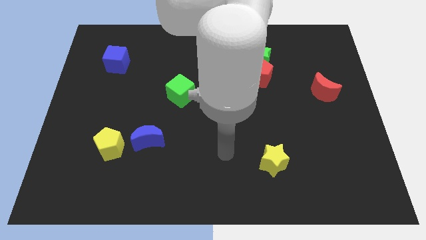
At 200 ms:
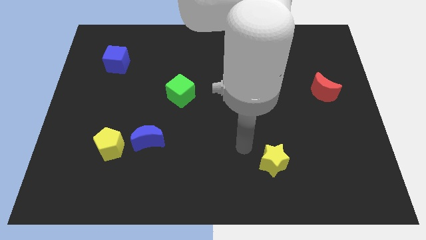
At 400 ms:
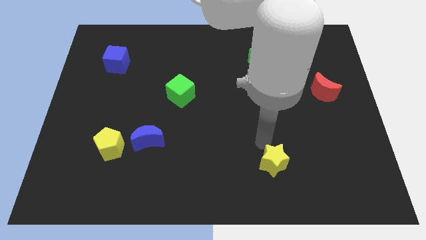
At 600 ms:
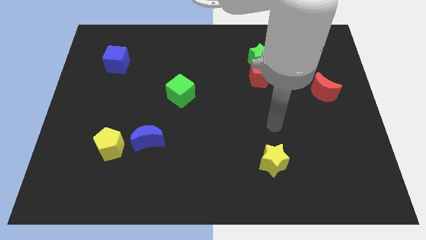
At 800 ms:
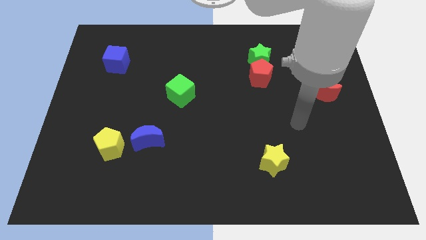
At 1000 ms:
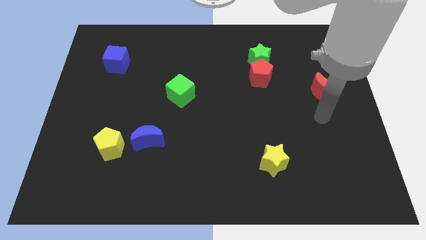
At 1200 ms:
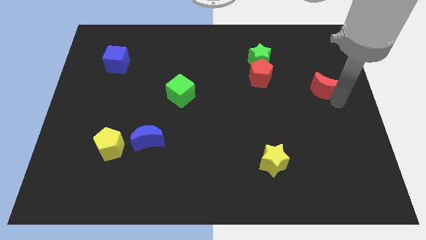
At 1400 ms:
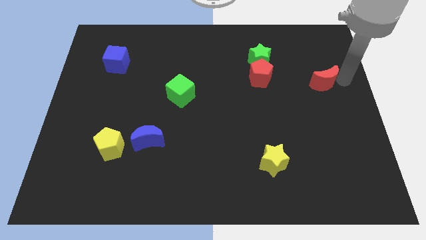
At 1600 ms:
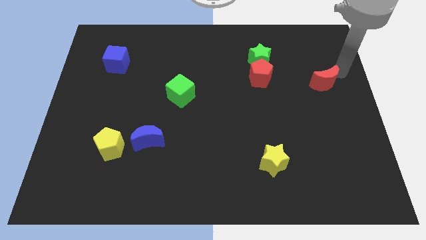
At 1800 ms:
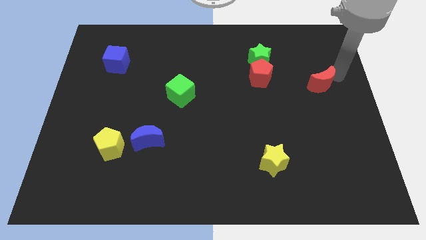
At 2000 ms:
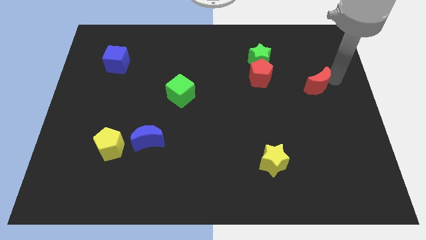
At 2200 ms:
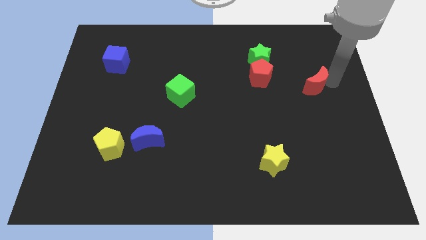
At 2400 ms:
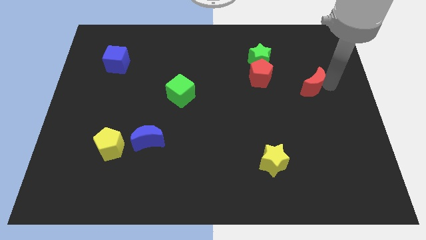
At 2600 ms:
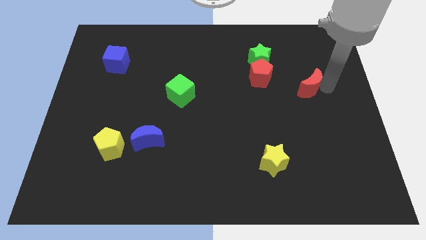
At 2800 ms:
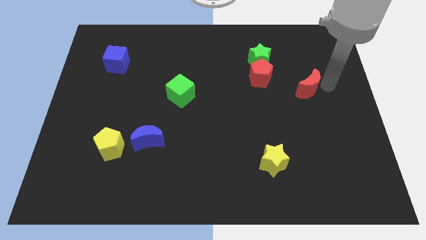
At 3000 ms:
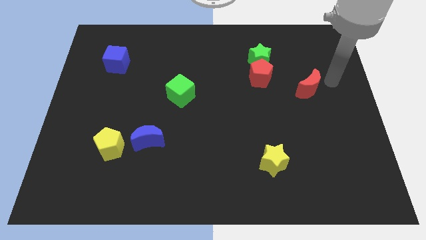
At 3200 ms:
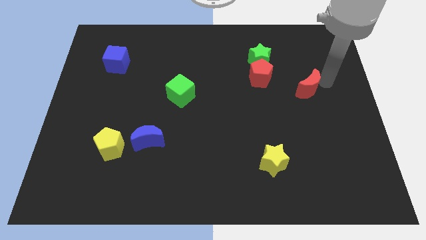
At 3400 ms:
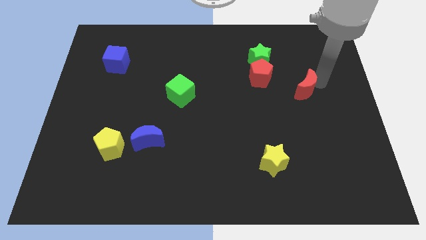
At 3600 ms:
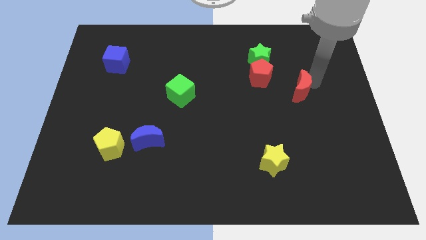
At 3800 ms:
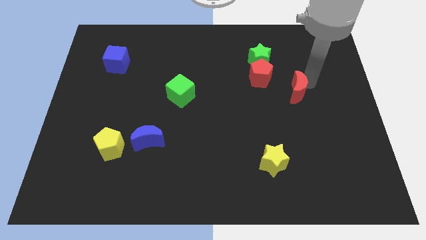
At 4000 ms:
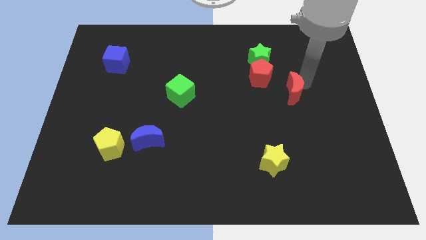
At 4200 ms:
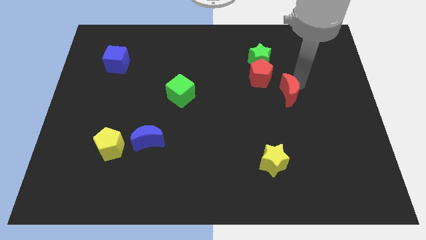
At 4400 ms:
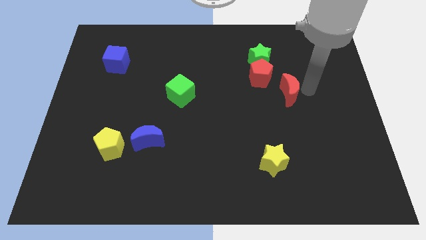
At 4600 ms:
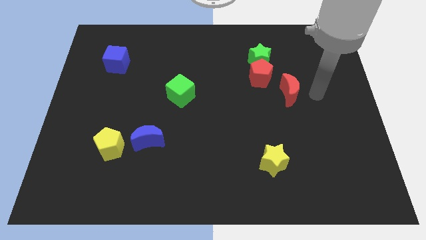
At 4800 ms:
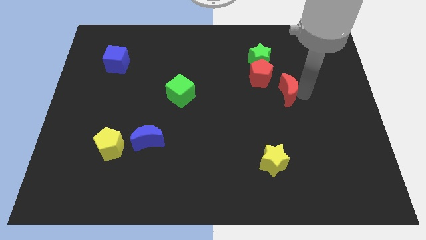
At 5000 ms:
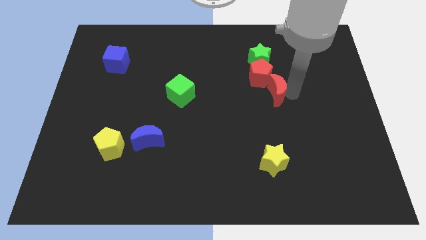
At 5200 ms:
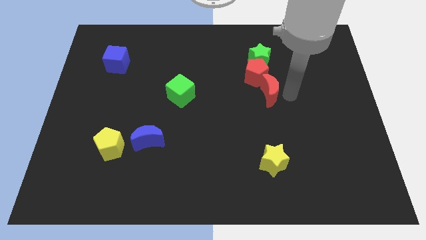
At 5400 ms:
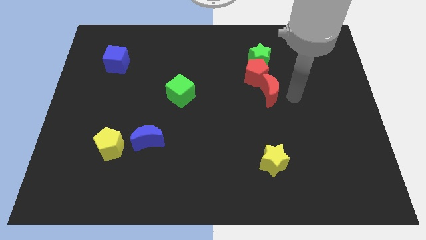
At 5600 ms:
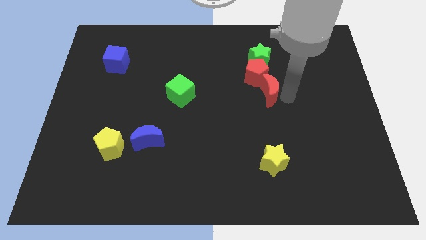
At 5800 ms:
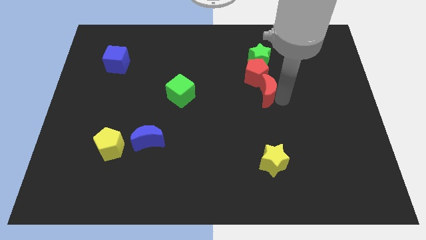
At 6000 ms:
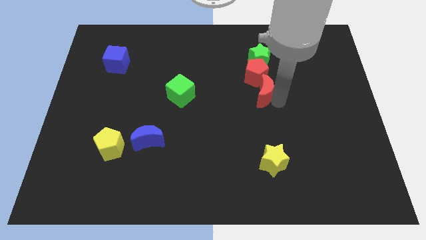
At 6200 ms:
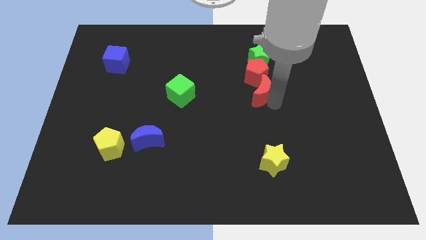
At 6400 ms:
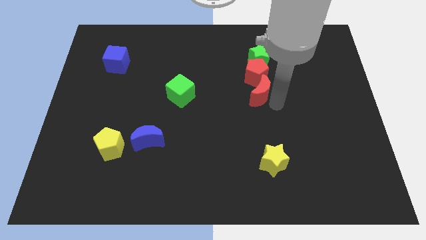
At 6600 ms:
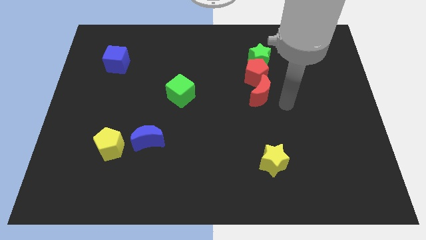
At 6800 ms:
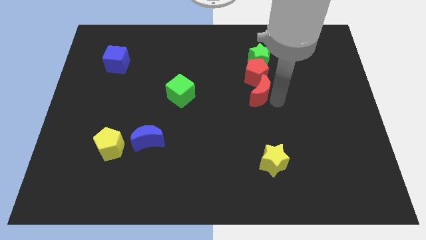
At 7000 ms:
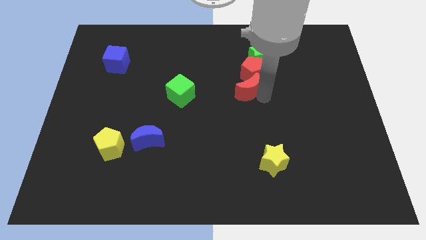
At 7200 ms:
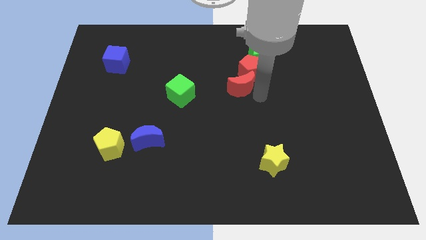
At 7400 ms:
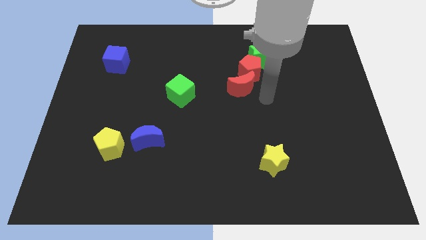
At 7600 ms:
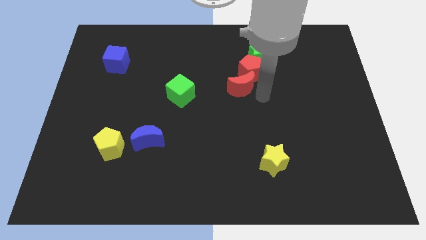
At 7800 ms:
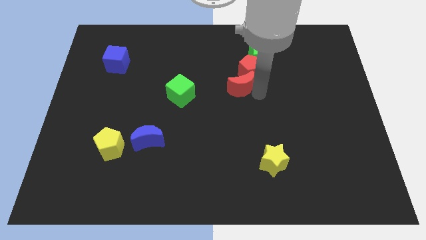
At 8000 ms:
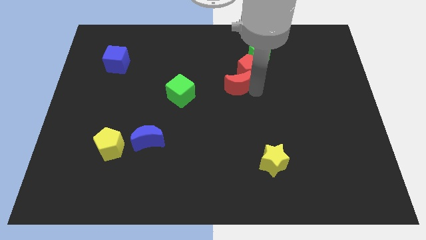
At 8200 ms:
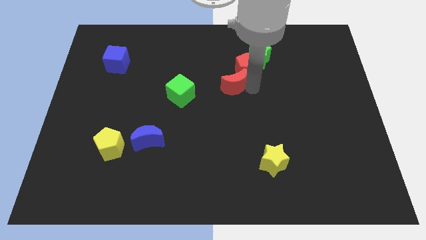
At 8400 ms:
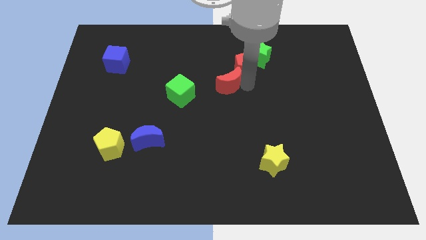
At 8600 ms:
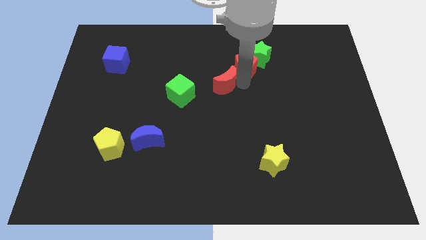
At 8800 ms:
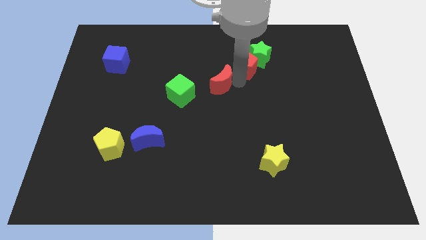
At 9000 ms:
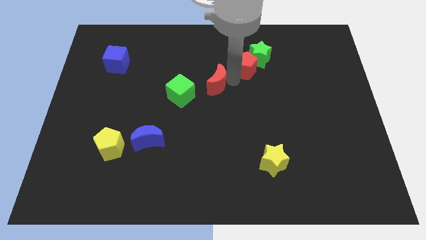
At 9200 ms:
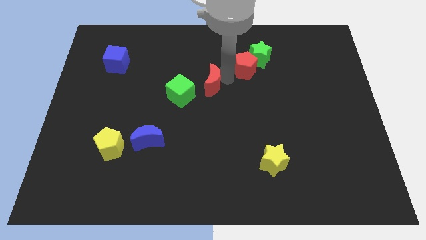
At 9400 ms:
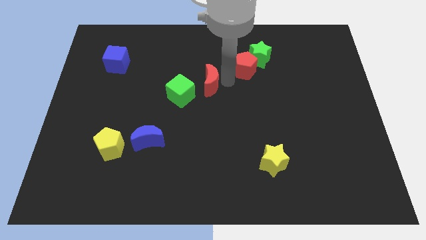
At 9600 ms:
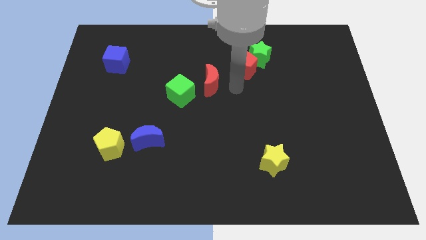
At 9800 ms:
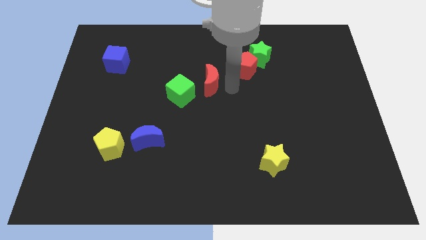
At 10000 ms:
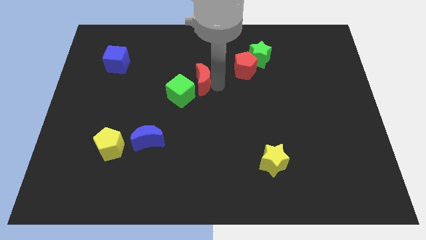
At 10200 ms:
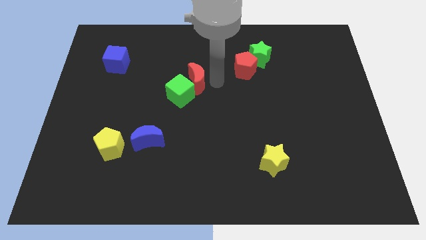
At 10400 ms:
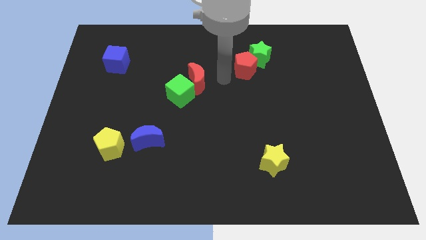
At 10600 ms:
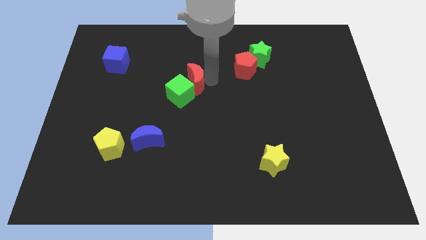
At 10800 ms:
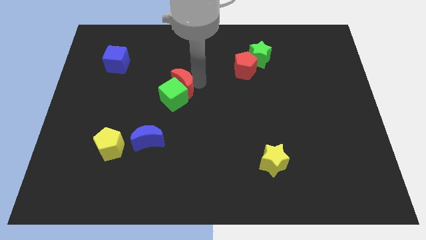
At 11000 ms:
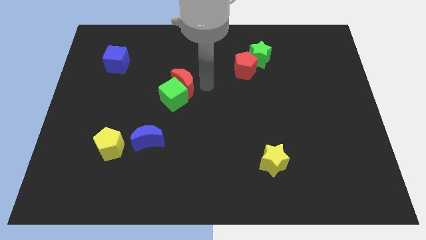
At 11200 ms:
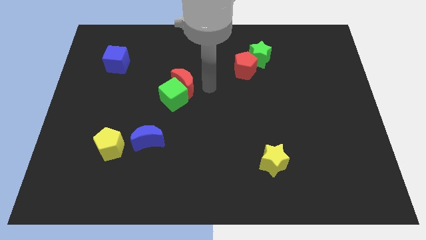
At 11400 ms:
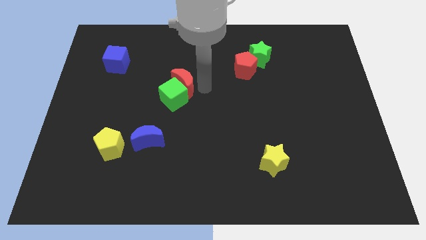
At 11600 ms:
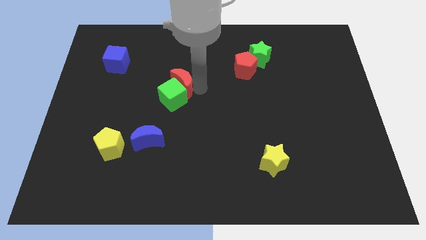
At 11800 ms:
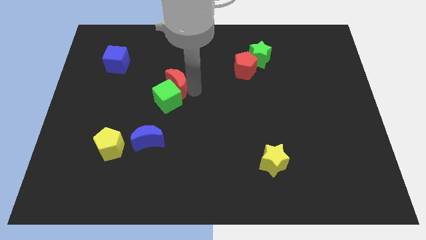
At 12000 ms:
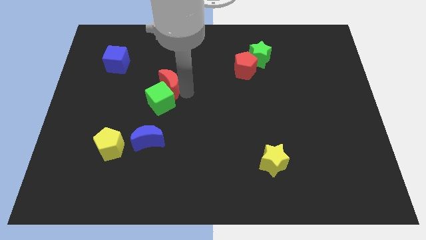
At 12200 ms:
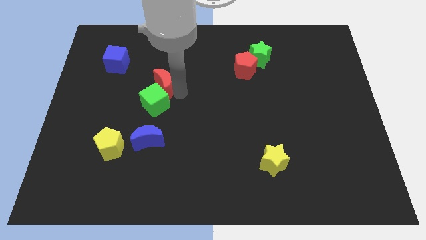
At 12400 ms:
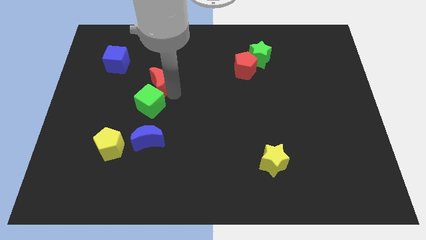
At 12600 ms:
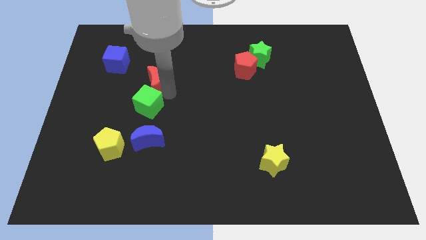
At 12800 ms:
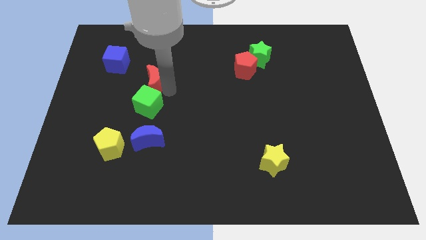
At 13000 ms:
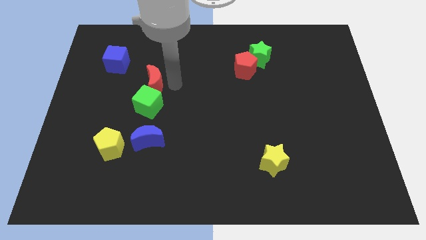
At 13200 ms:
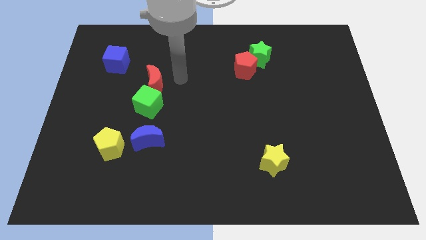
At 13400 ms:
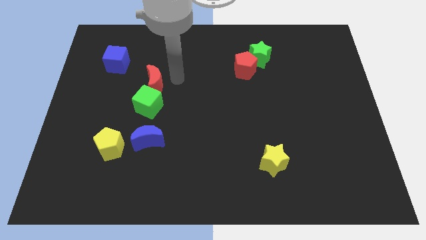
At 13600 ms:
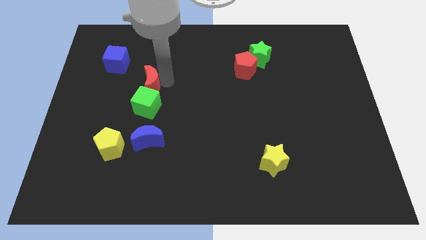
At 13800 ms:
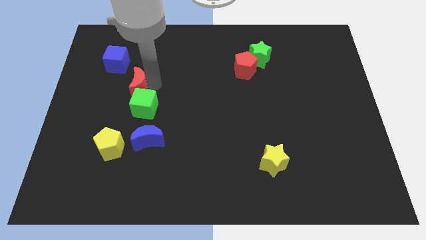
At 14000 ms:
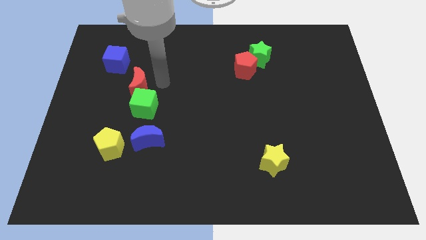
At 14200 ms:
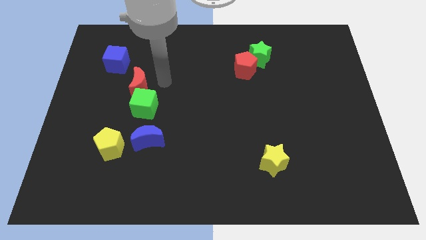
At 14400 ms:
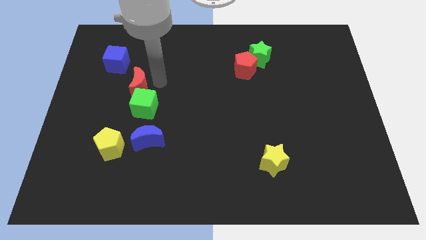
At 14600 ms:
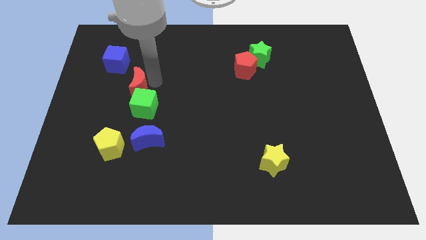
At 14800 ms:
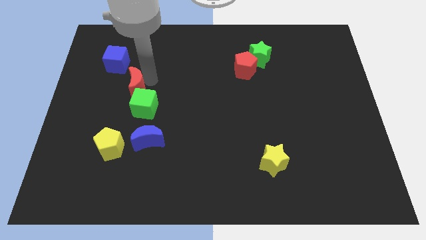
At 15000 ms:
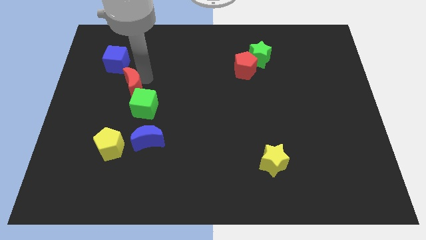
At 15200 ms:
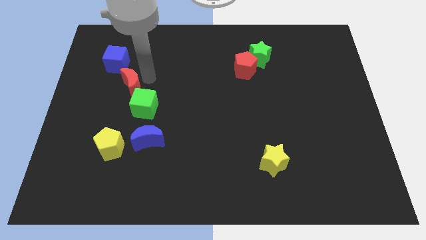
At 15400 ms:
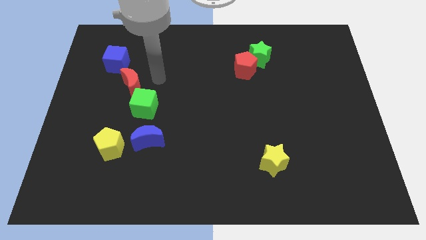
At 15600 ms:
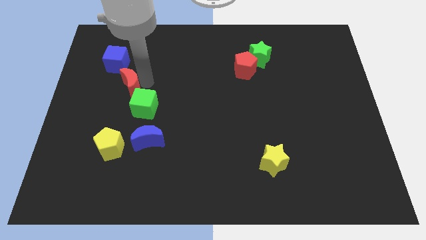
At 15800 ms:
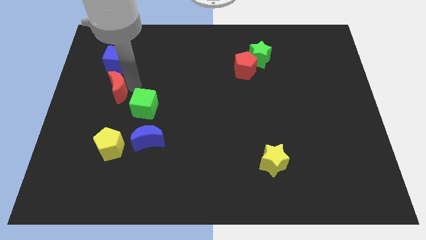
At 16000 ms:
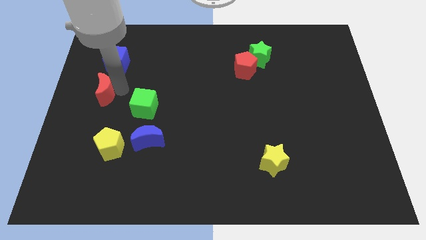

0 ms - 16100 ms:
move the red moon to the left side

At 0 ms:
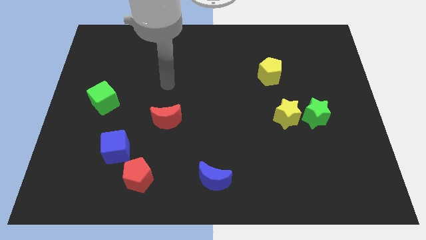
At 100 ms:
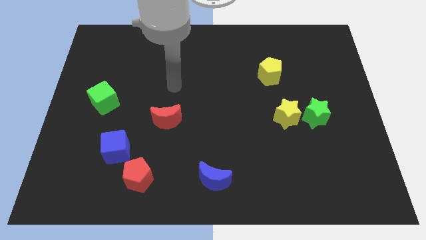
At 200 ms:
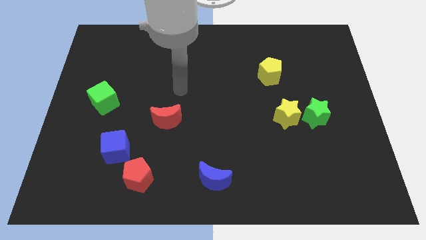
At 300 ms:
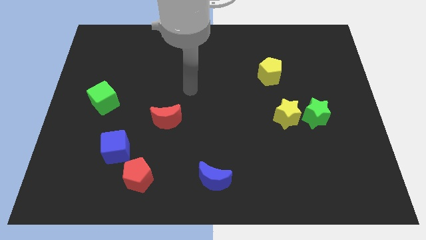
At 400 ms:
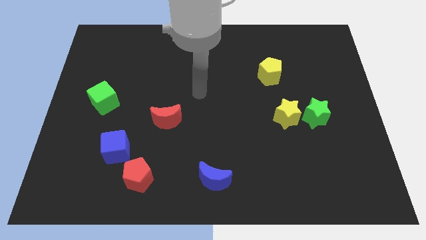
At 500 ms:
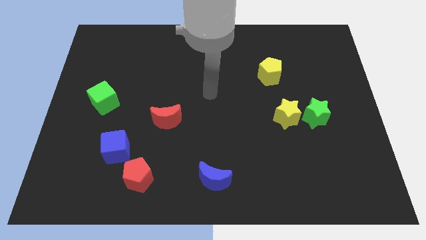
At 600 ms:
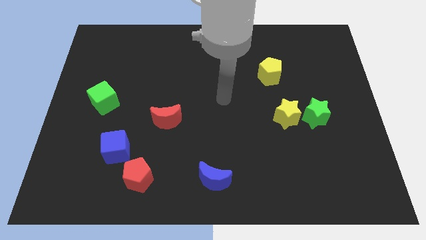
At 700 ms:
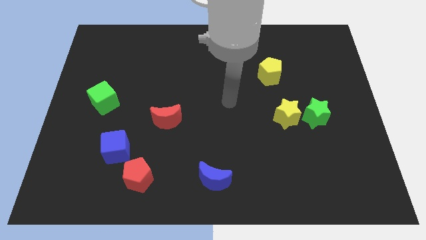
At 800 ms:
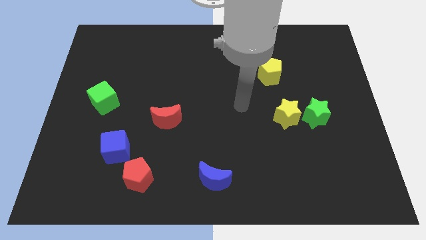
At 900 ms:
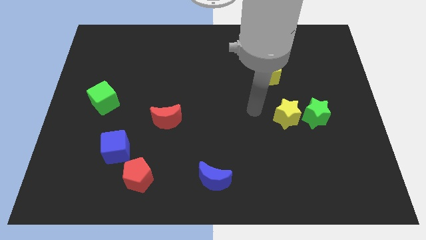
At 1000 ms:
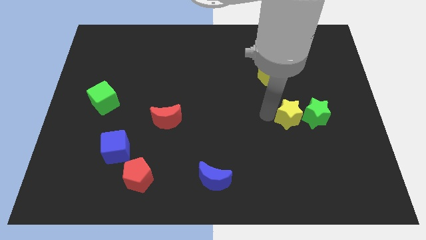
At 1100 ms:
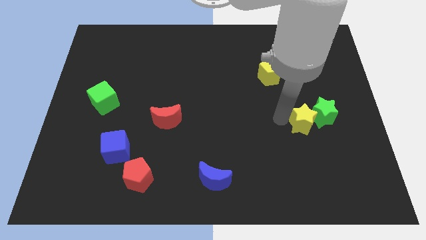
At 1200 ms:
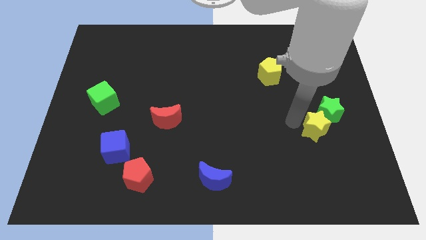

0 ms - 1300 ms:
slide the green star to the center right
